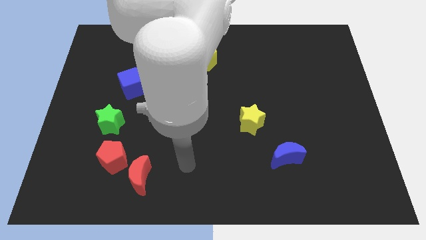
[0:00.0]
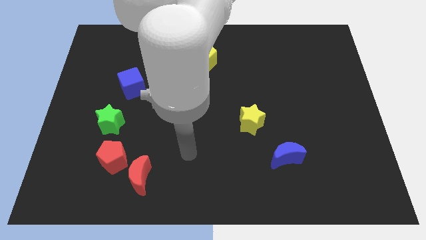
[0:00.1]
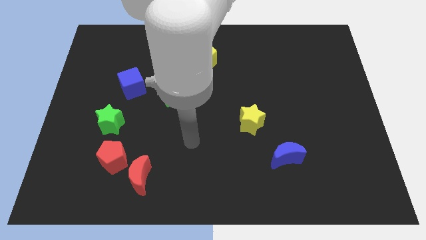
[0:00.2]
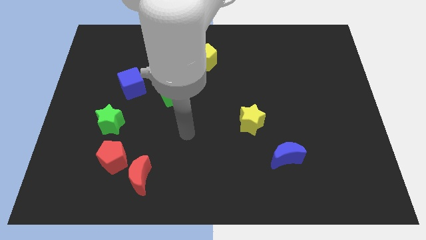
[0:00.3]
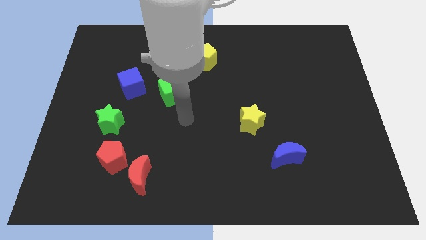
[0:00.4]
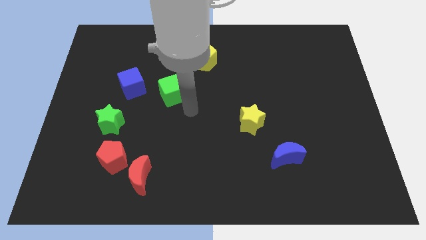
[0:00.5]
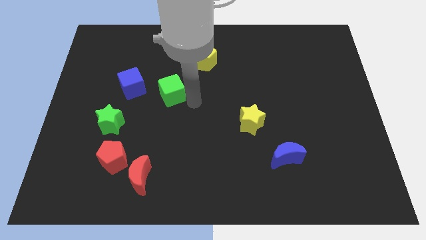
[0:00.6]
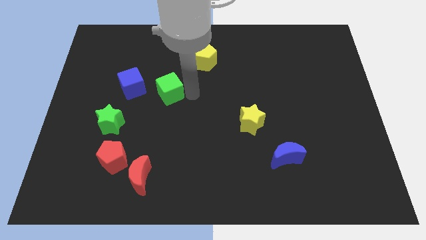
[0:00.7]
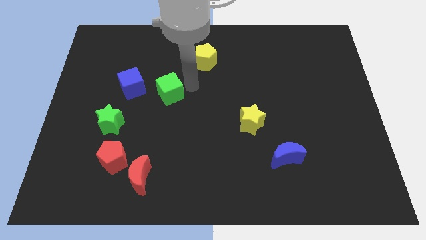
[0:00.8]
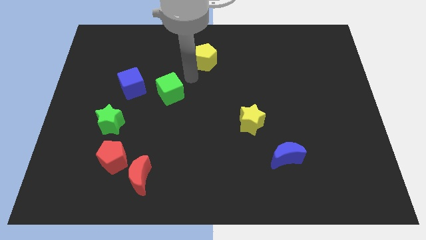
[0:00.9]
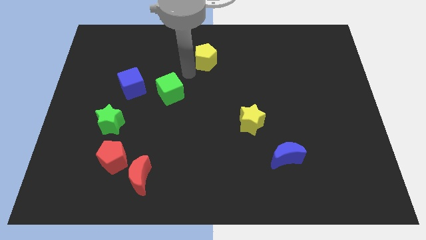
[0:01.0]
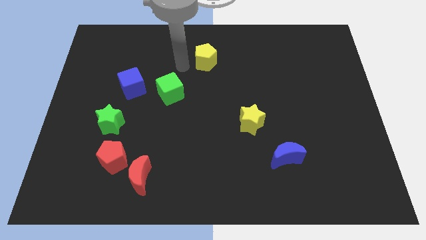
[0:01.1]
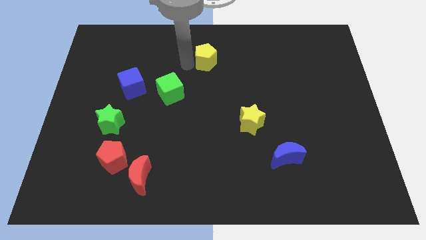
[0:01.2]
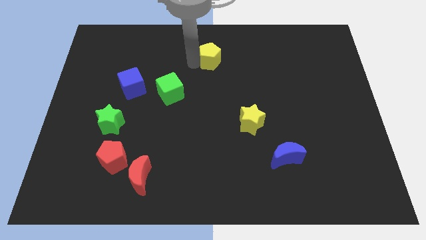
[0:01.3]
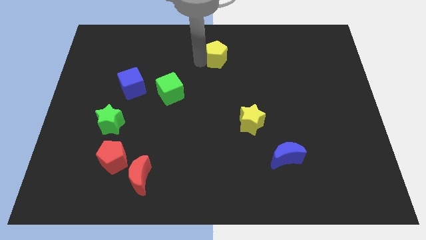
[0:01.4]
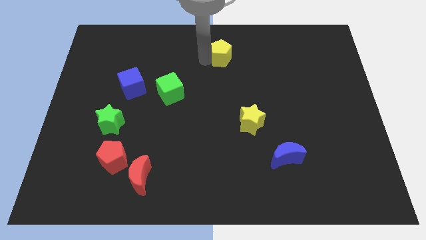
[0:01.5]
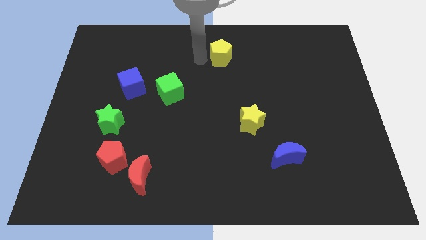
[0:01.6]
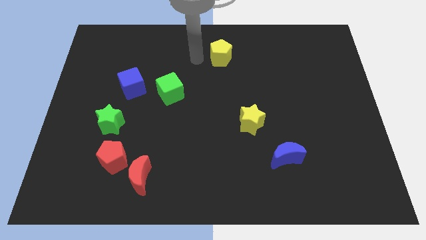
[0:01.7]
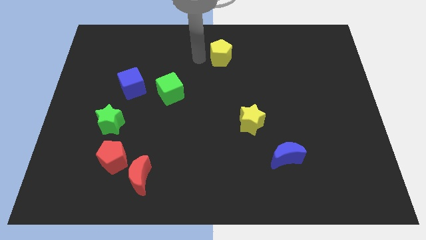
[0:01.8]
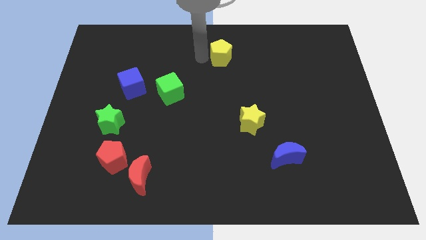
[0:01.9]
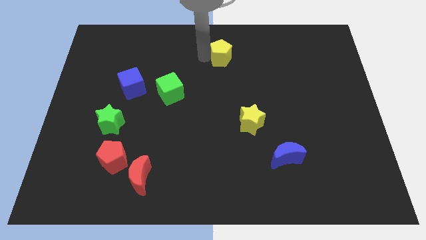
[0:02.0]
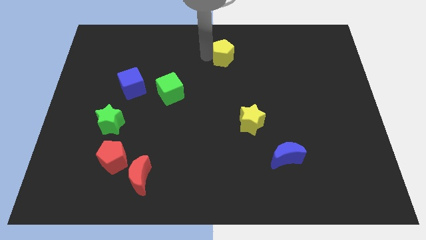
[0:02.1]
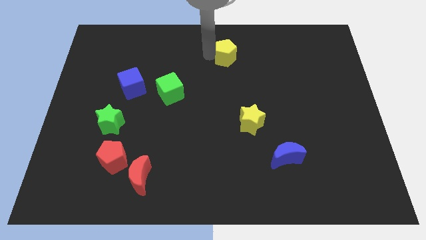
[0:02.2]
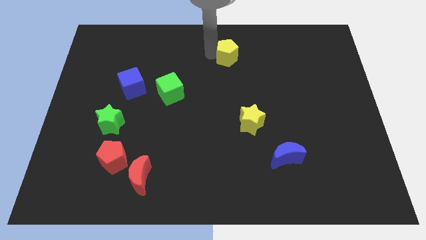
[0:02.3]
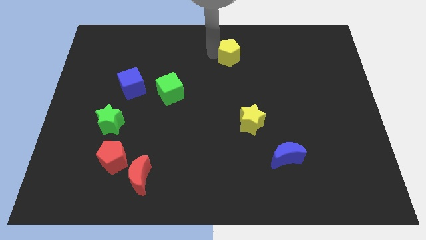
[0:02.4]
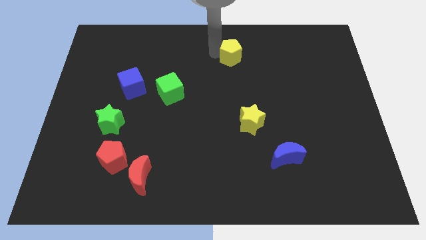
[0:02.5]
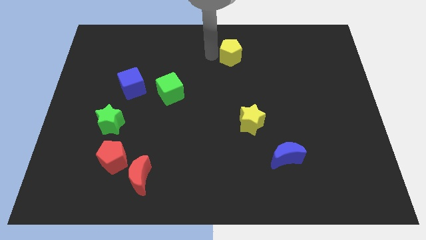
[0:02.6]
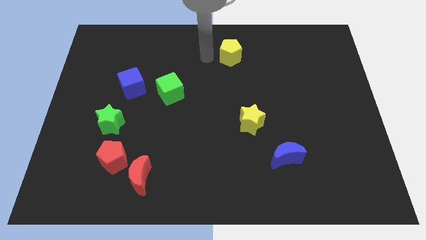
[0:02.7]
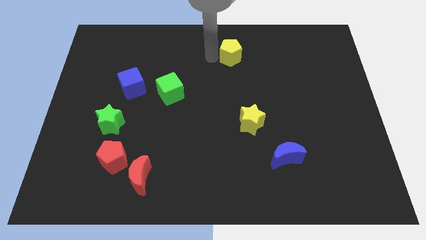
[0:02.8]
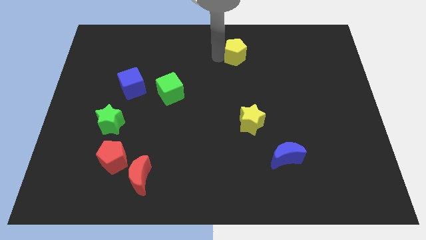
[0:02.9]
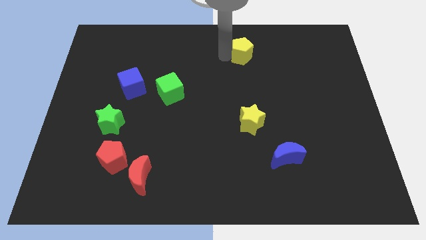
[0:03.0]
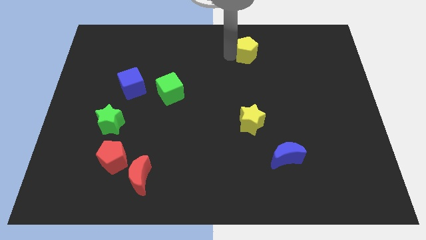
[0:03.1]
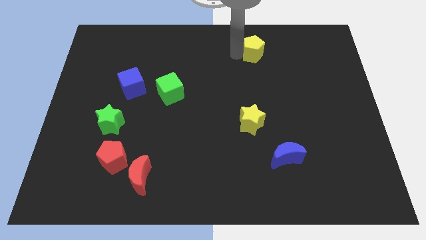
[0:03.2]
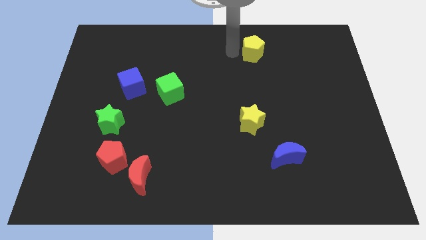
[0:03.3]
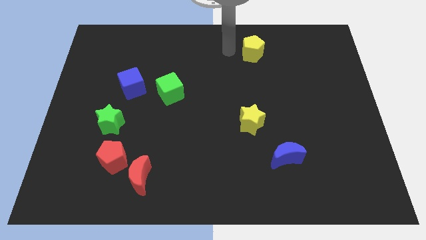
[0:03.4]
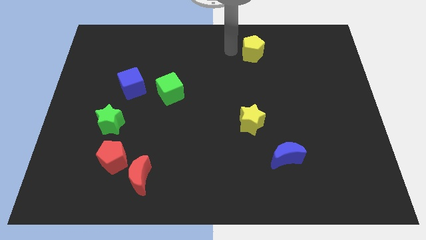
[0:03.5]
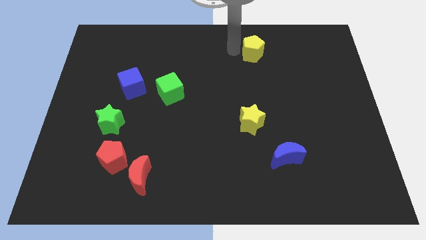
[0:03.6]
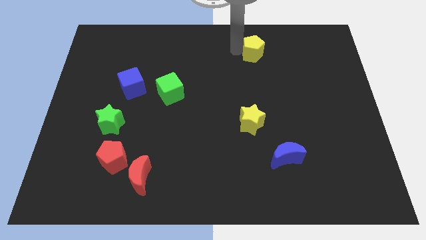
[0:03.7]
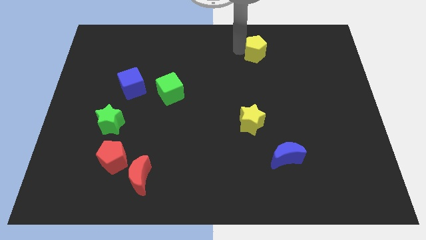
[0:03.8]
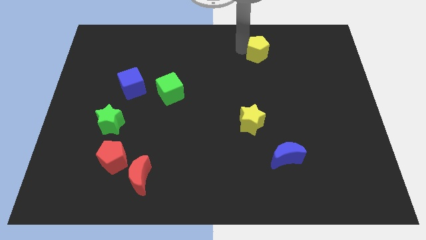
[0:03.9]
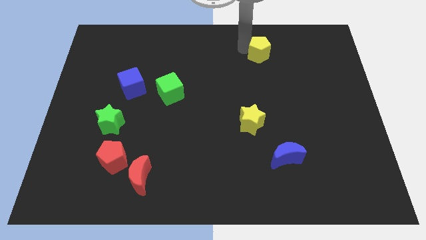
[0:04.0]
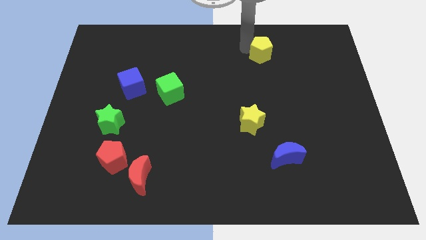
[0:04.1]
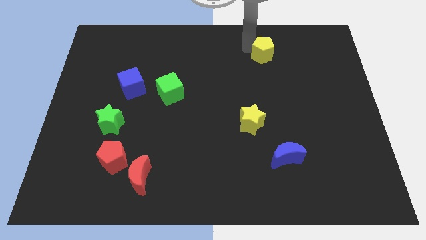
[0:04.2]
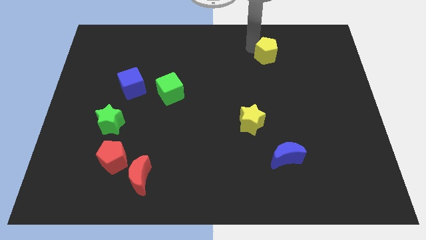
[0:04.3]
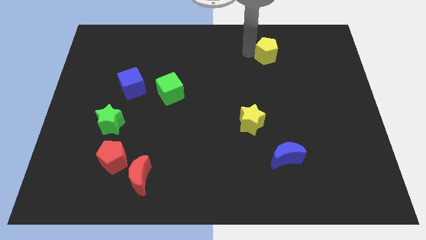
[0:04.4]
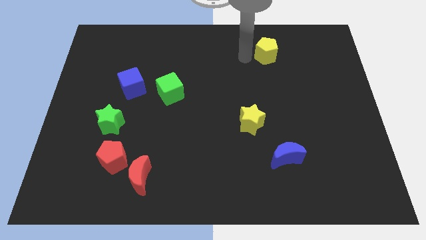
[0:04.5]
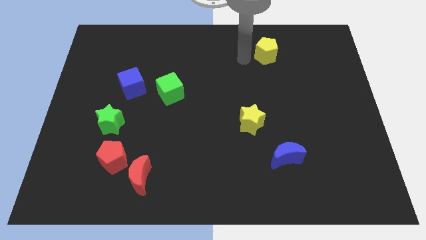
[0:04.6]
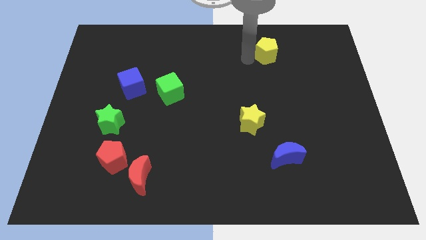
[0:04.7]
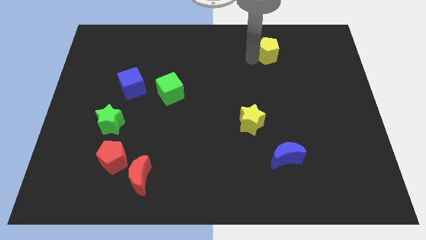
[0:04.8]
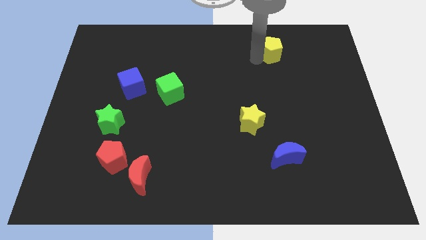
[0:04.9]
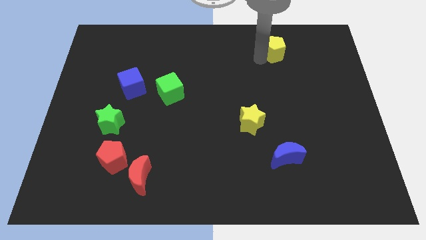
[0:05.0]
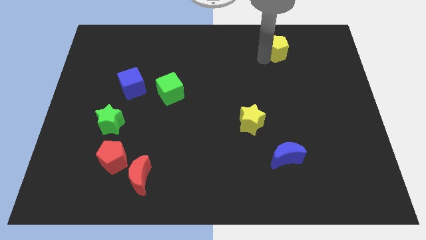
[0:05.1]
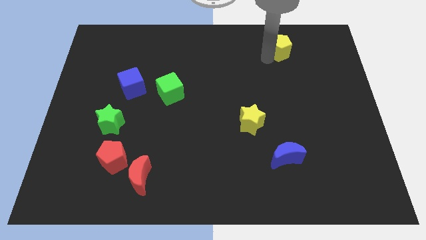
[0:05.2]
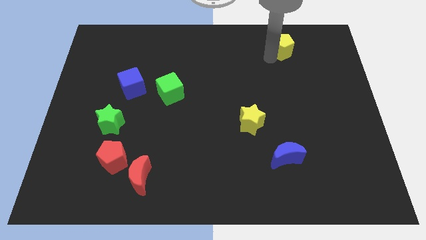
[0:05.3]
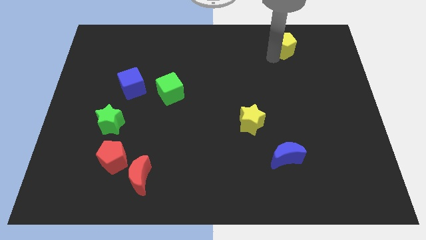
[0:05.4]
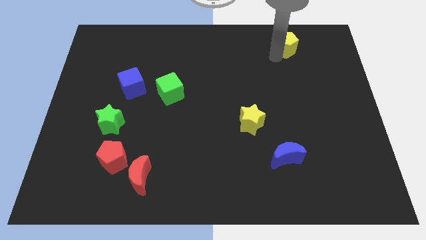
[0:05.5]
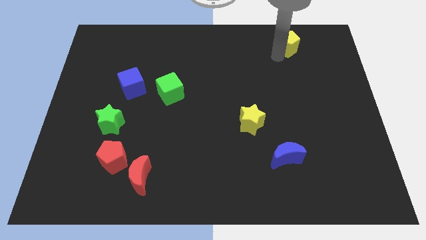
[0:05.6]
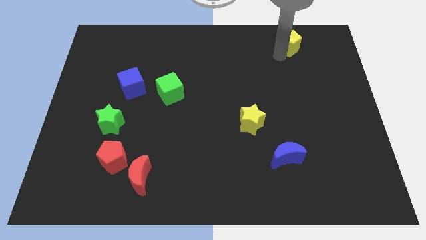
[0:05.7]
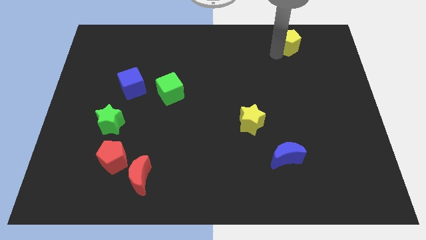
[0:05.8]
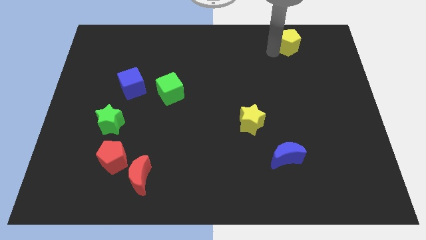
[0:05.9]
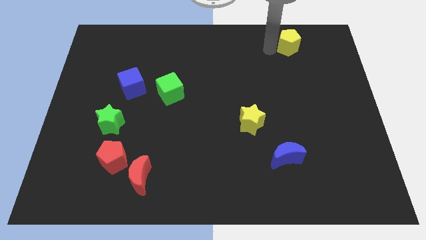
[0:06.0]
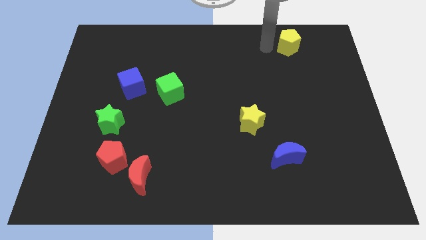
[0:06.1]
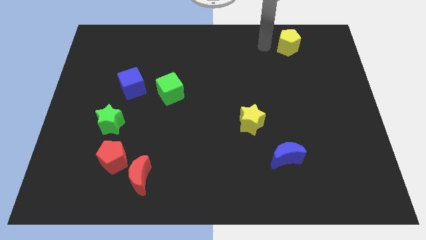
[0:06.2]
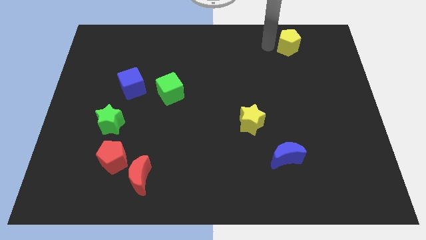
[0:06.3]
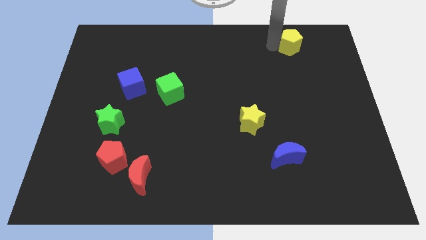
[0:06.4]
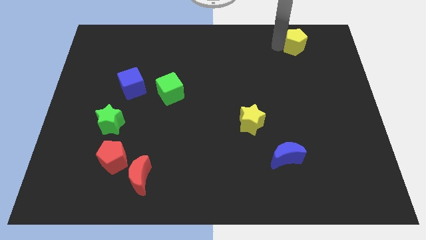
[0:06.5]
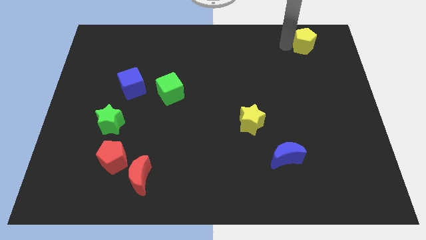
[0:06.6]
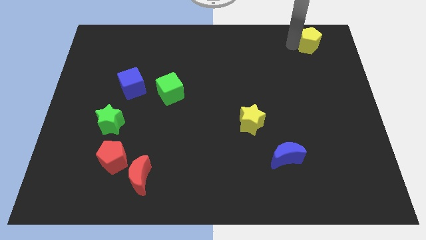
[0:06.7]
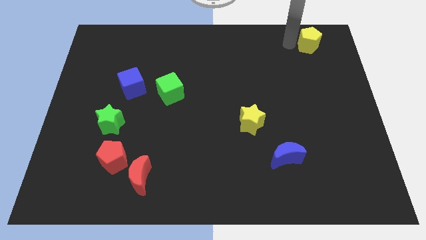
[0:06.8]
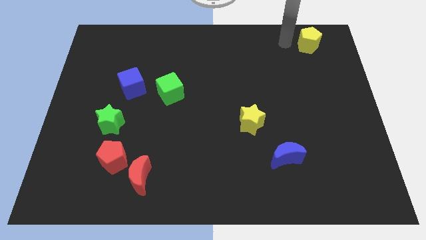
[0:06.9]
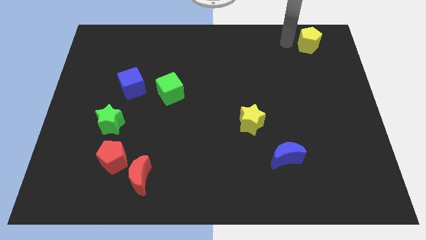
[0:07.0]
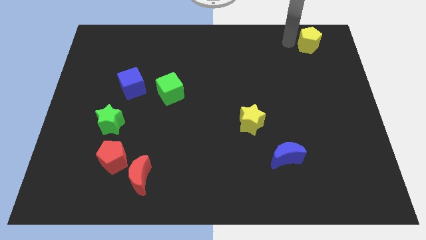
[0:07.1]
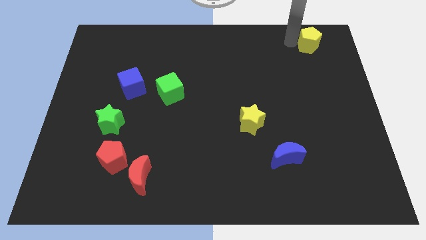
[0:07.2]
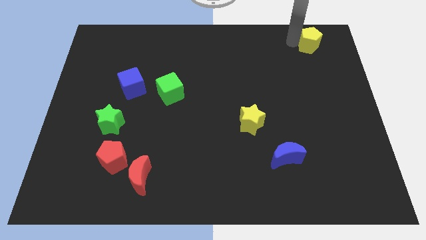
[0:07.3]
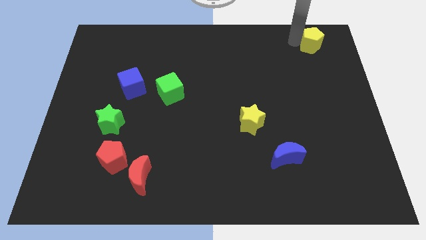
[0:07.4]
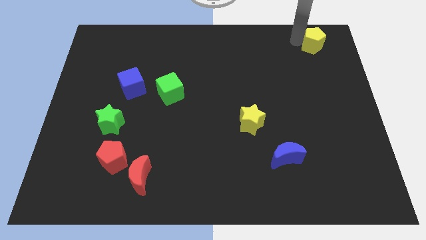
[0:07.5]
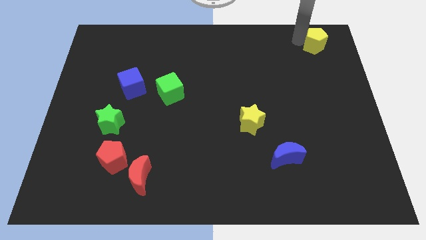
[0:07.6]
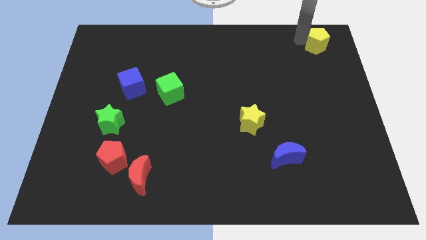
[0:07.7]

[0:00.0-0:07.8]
slide the yellow pentagon to the top right
